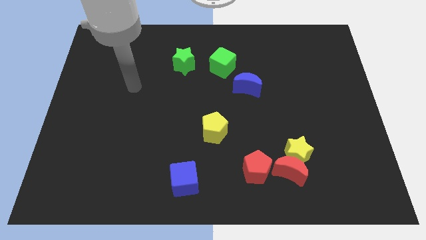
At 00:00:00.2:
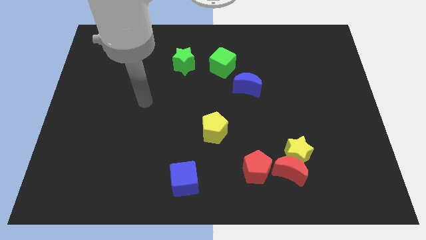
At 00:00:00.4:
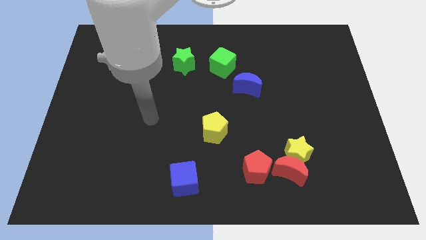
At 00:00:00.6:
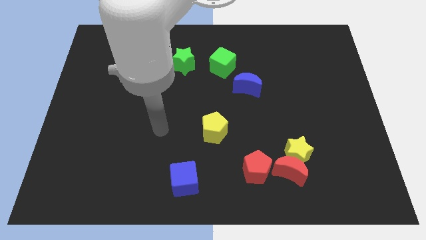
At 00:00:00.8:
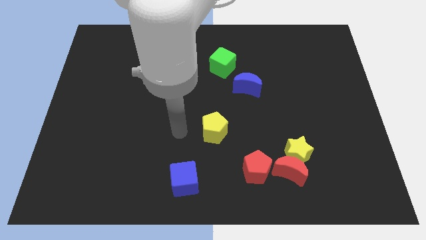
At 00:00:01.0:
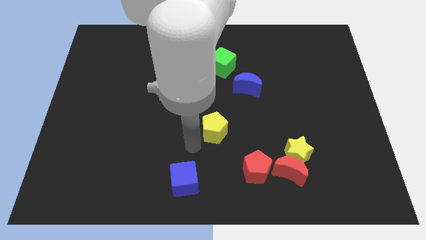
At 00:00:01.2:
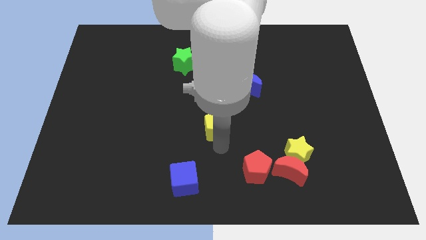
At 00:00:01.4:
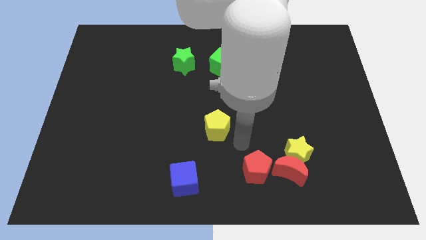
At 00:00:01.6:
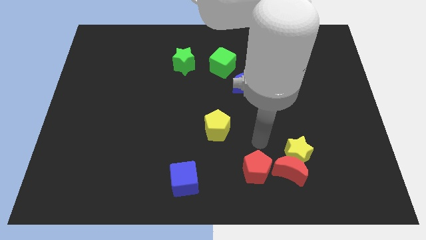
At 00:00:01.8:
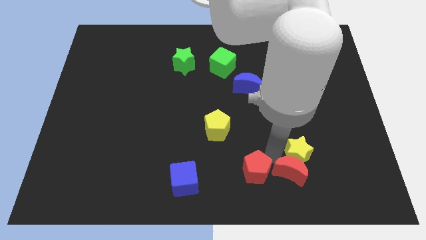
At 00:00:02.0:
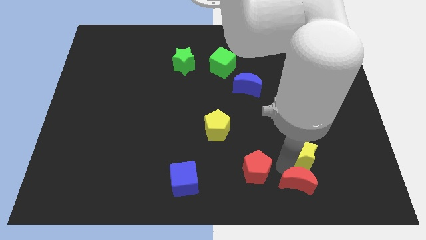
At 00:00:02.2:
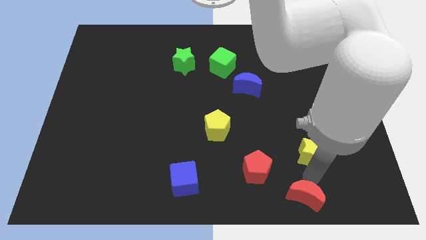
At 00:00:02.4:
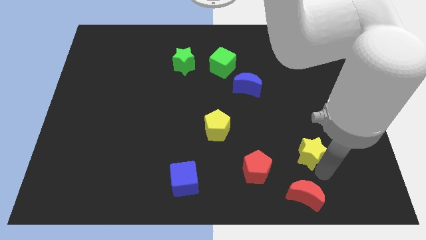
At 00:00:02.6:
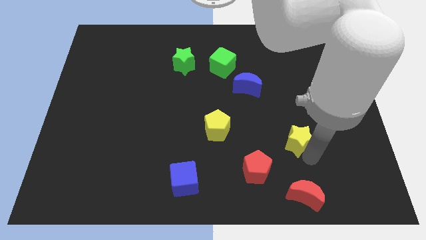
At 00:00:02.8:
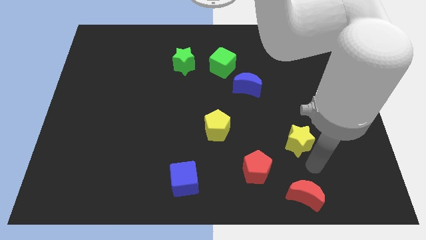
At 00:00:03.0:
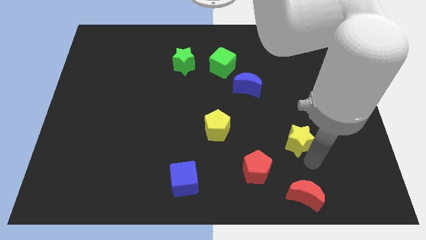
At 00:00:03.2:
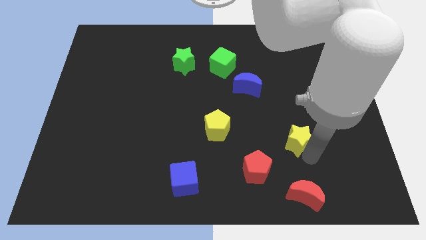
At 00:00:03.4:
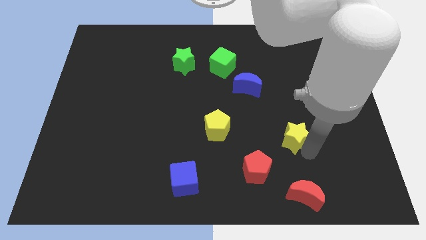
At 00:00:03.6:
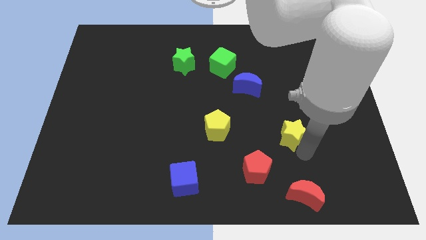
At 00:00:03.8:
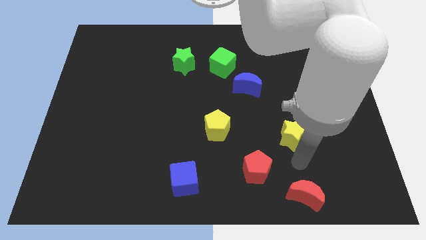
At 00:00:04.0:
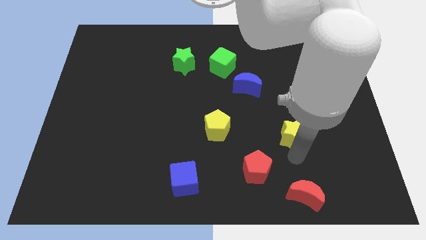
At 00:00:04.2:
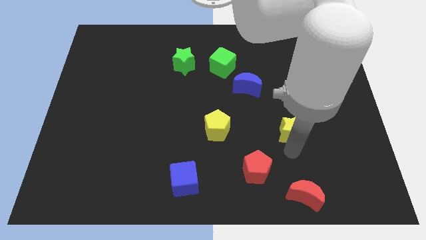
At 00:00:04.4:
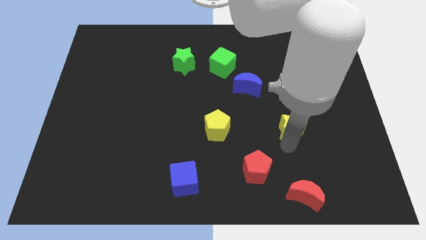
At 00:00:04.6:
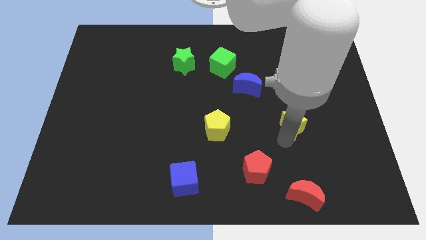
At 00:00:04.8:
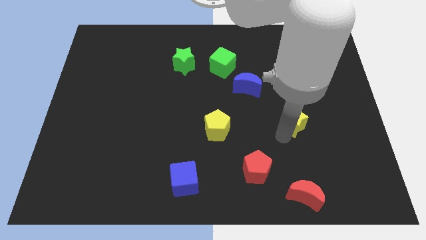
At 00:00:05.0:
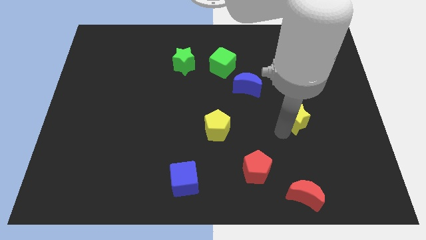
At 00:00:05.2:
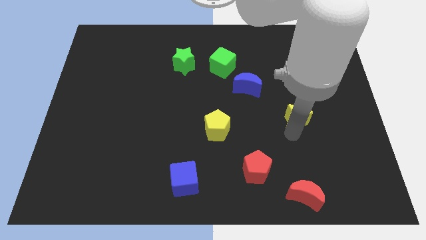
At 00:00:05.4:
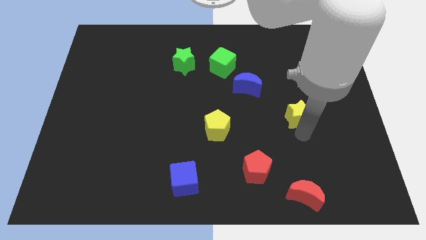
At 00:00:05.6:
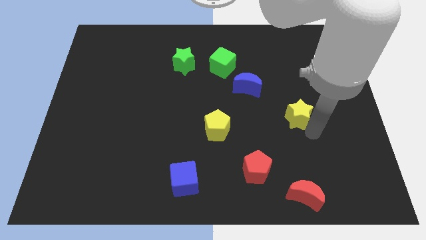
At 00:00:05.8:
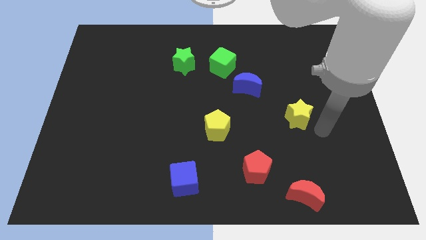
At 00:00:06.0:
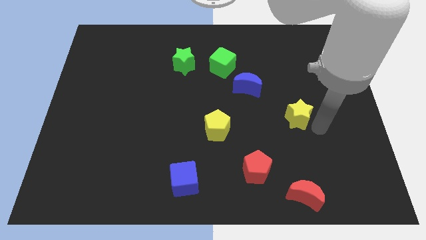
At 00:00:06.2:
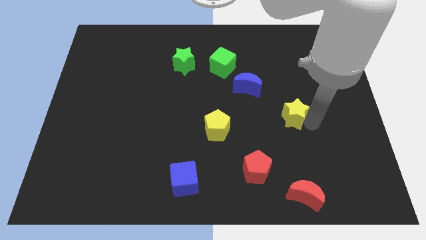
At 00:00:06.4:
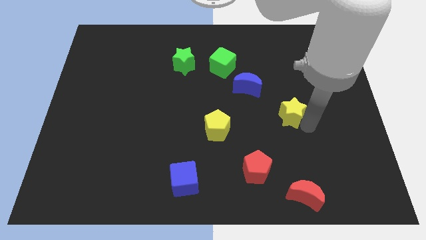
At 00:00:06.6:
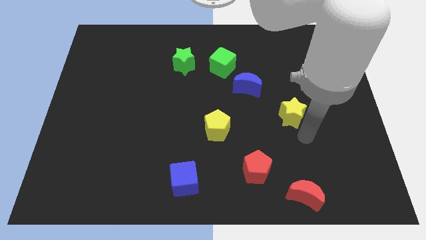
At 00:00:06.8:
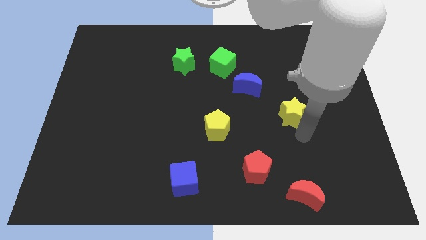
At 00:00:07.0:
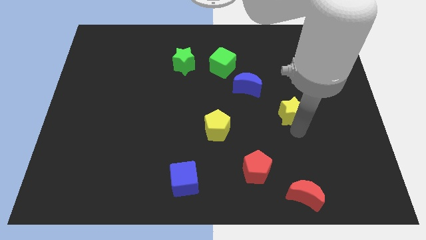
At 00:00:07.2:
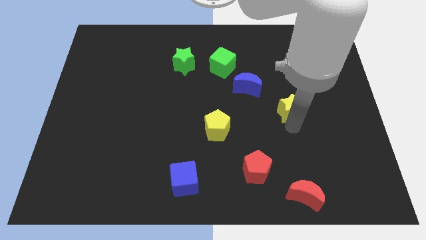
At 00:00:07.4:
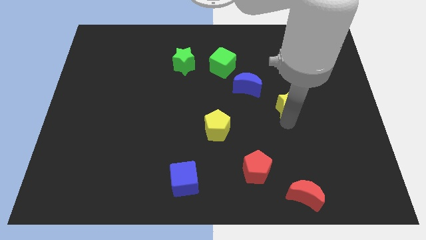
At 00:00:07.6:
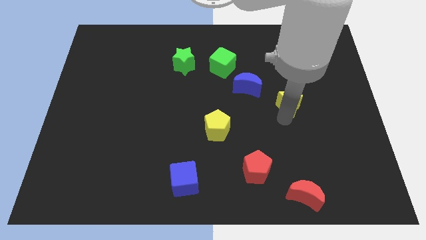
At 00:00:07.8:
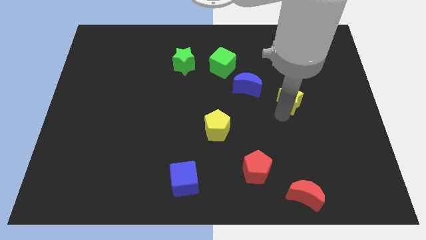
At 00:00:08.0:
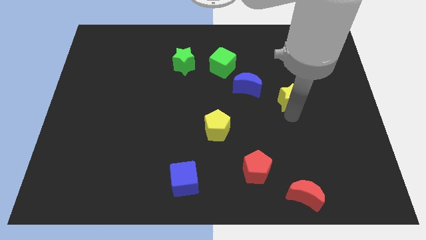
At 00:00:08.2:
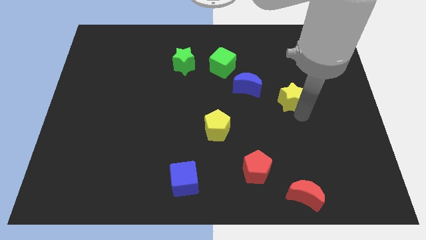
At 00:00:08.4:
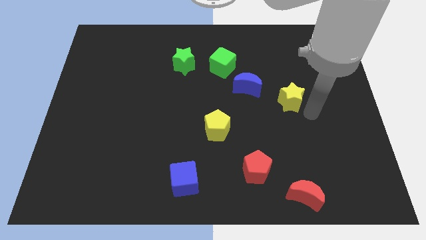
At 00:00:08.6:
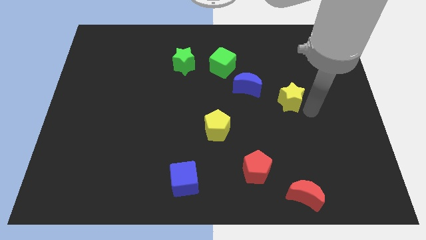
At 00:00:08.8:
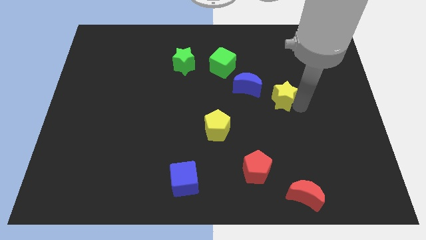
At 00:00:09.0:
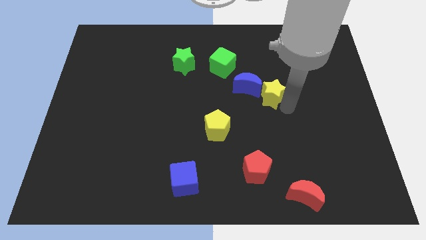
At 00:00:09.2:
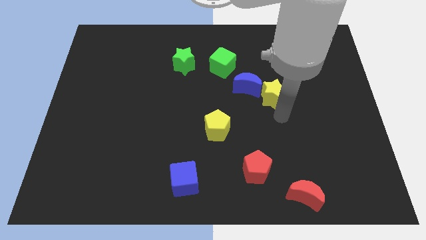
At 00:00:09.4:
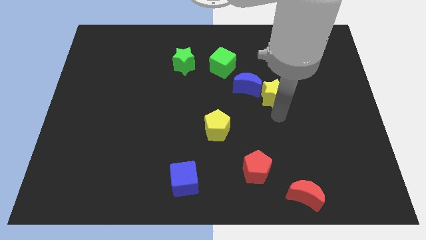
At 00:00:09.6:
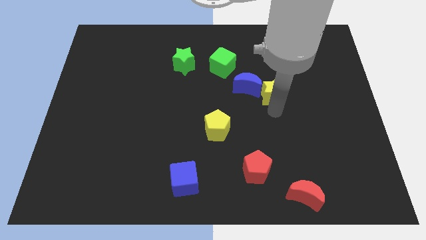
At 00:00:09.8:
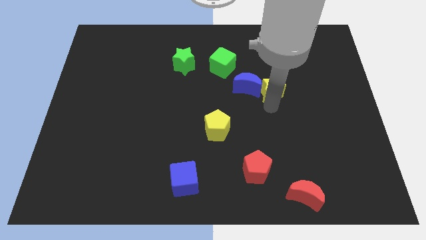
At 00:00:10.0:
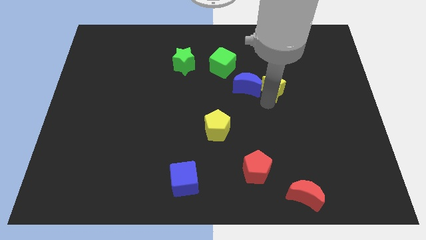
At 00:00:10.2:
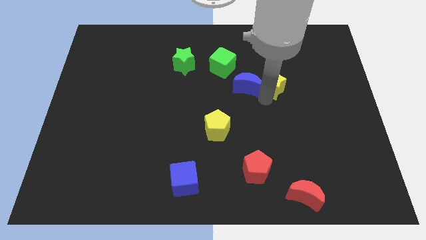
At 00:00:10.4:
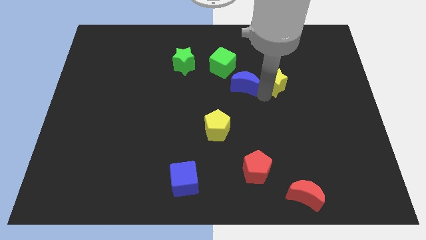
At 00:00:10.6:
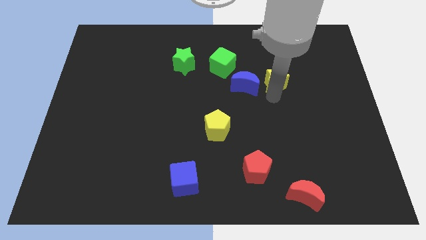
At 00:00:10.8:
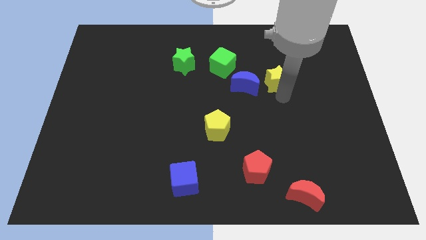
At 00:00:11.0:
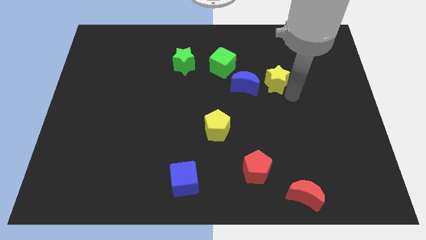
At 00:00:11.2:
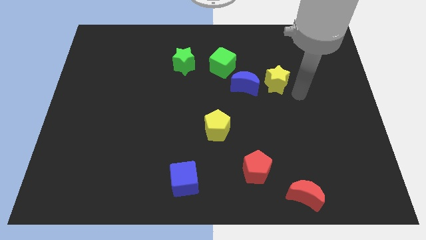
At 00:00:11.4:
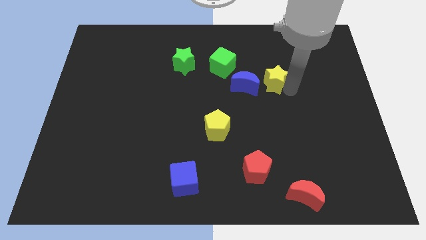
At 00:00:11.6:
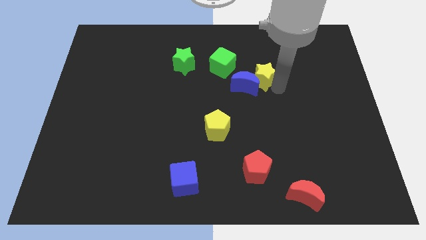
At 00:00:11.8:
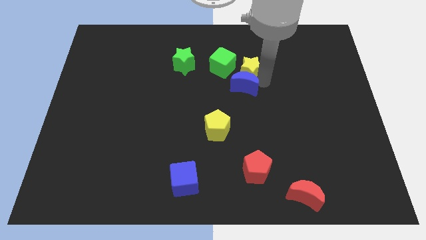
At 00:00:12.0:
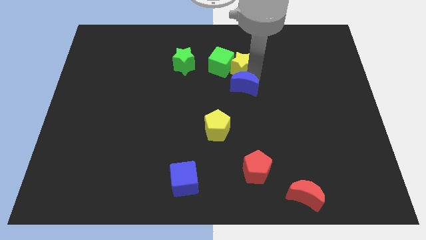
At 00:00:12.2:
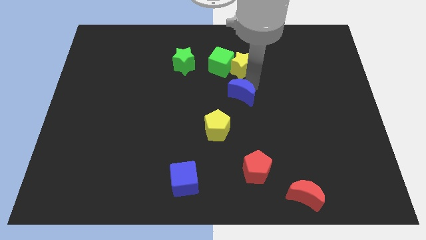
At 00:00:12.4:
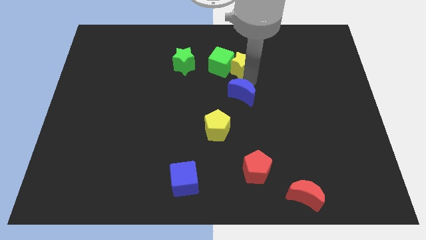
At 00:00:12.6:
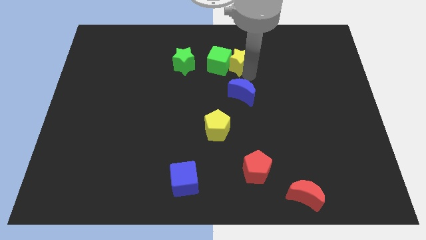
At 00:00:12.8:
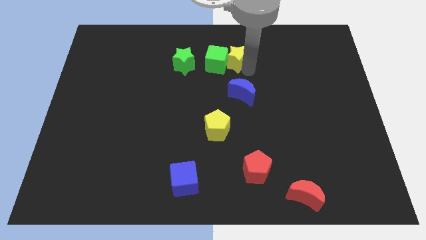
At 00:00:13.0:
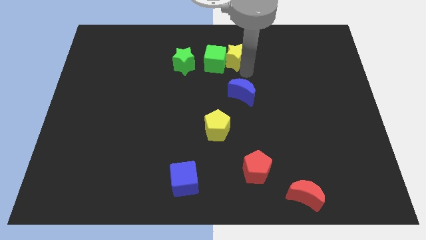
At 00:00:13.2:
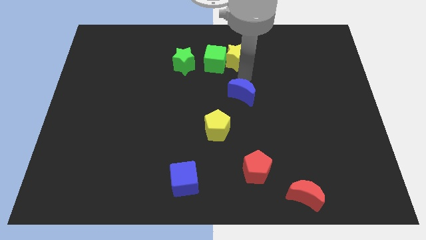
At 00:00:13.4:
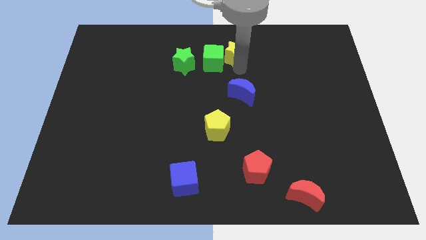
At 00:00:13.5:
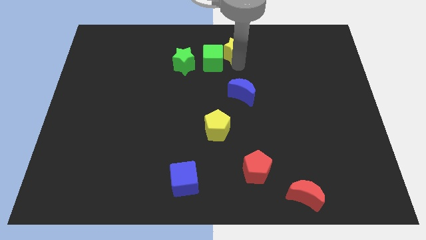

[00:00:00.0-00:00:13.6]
move the yellow star to the top side
